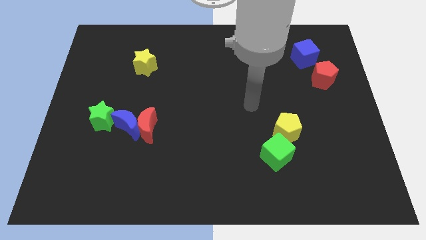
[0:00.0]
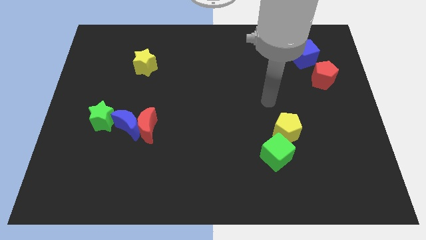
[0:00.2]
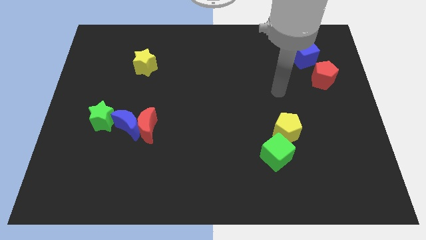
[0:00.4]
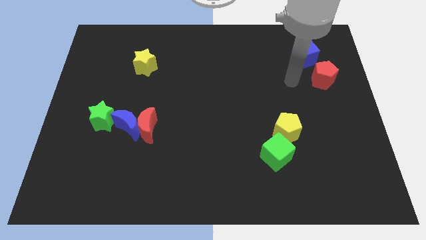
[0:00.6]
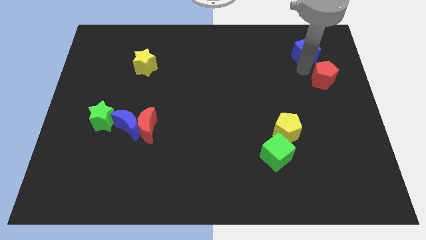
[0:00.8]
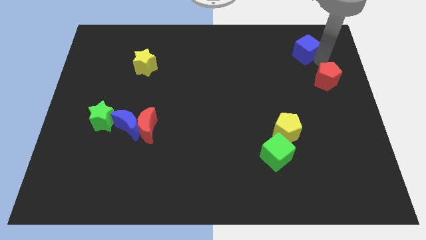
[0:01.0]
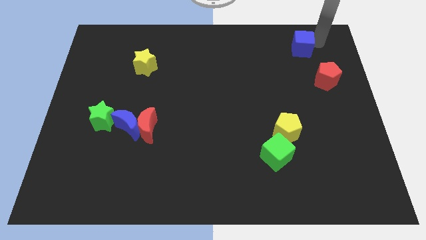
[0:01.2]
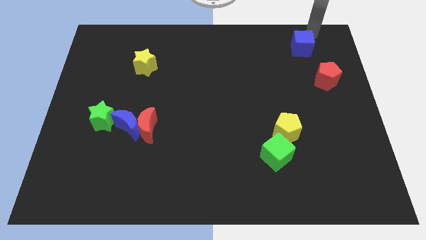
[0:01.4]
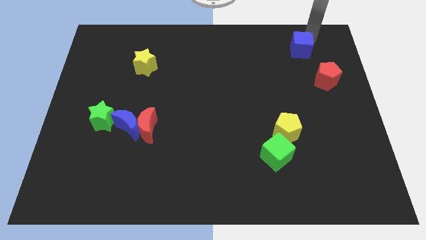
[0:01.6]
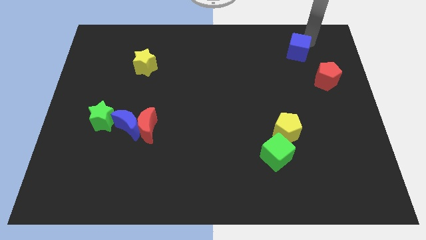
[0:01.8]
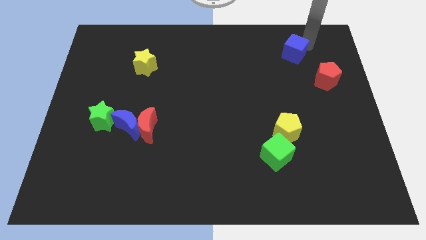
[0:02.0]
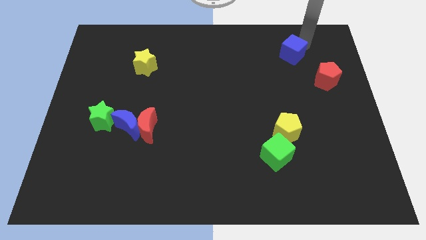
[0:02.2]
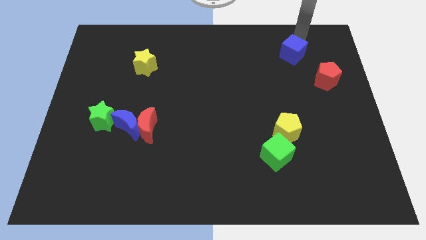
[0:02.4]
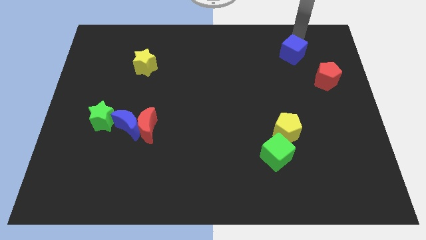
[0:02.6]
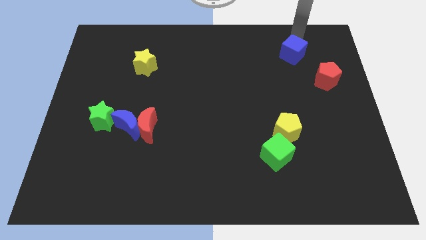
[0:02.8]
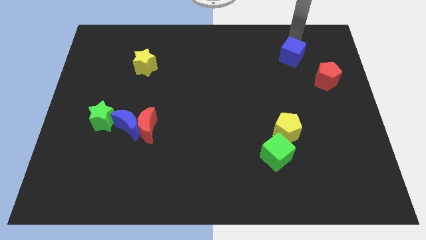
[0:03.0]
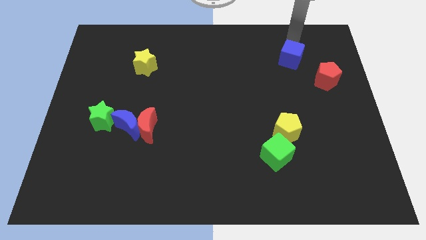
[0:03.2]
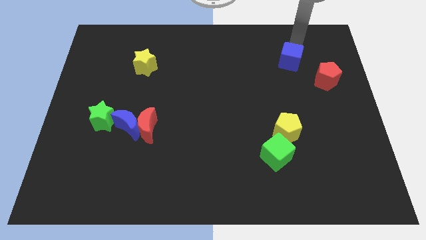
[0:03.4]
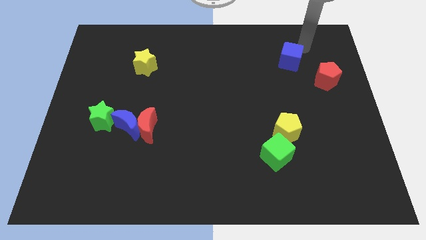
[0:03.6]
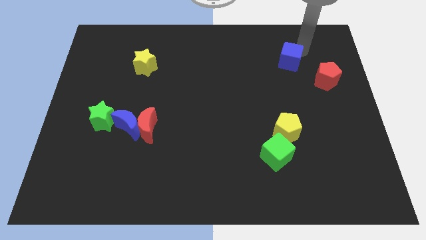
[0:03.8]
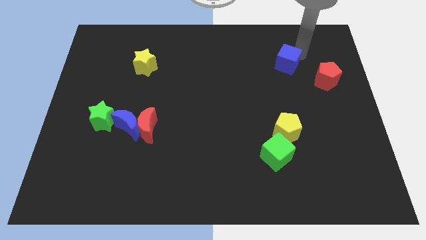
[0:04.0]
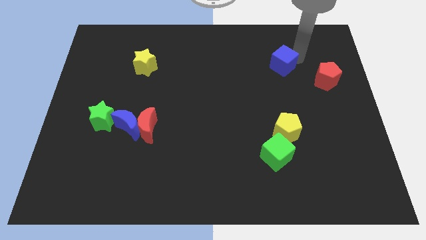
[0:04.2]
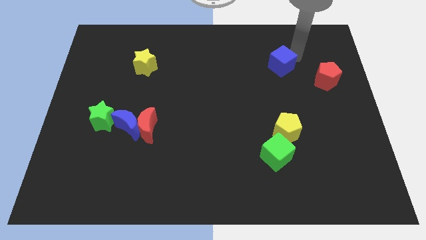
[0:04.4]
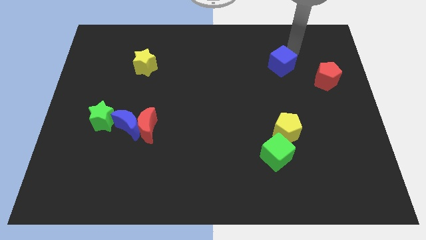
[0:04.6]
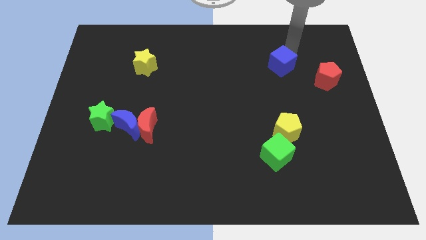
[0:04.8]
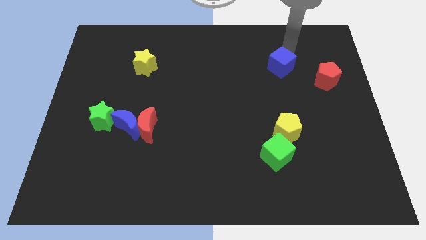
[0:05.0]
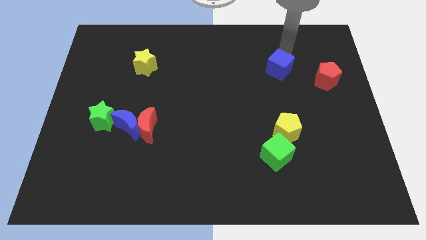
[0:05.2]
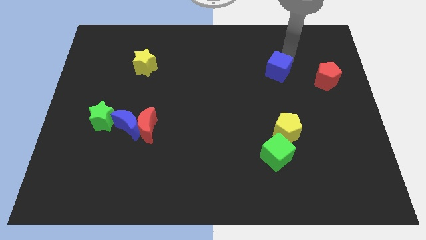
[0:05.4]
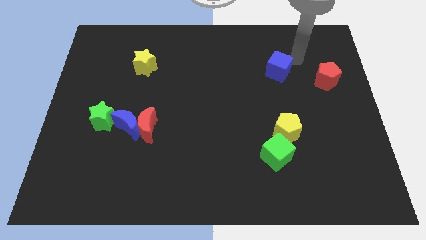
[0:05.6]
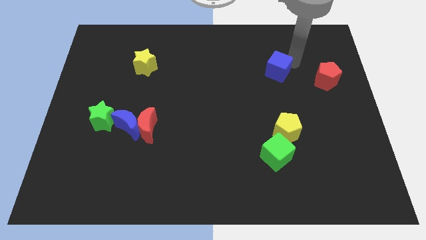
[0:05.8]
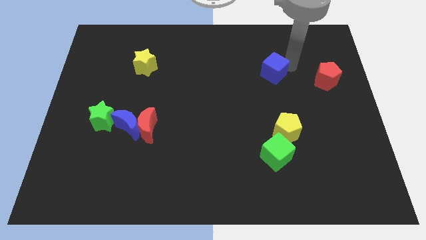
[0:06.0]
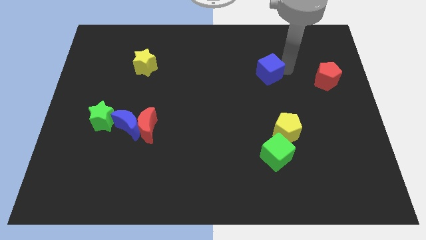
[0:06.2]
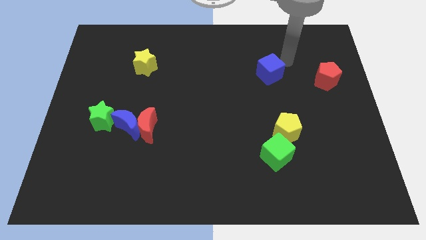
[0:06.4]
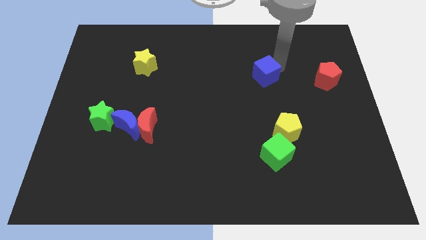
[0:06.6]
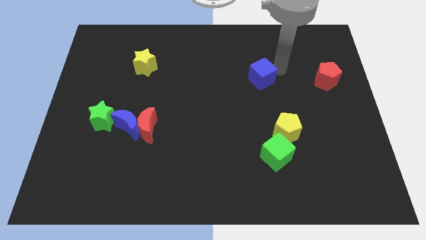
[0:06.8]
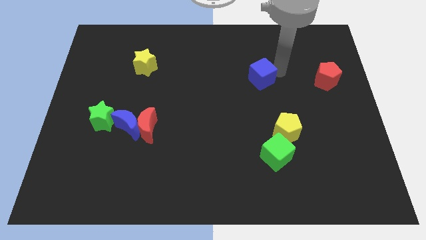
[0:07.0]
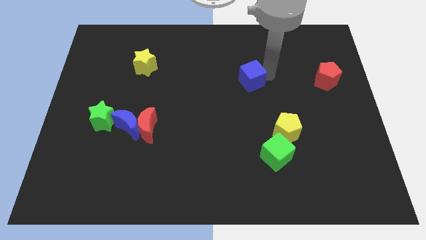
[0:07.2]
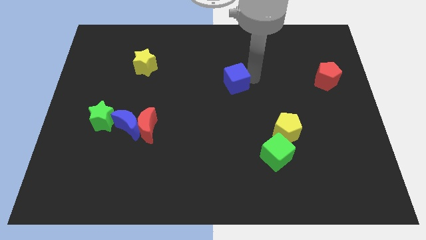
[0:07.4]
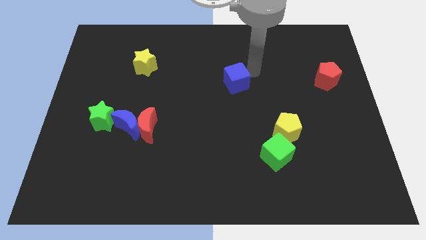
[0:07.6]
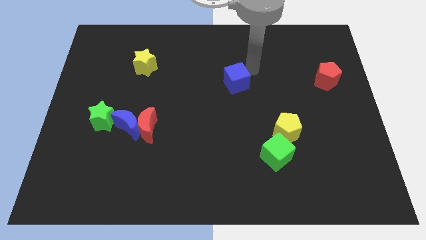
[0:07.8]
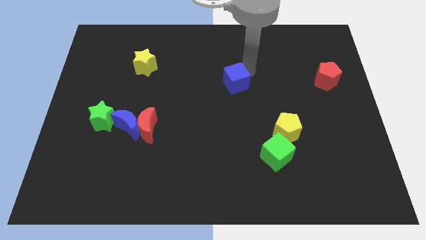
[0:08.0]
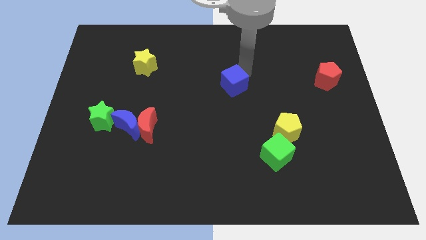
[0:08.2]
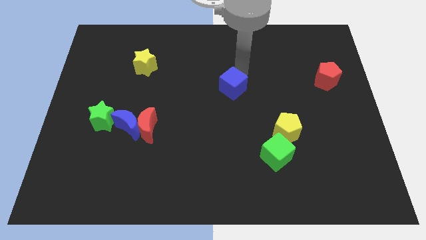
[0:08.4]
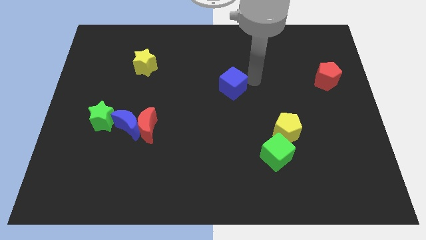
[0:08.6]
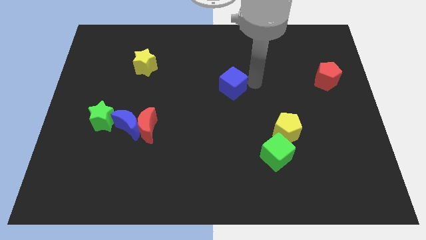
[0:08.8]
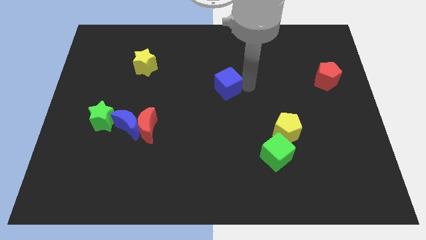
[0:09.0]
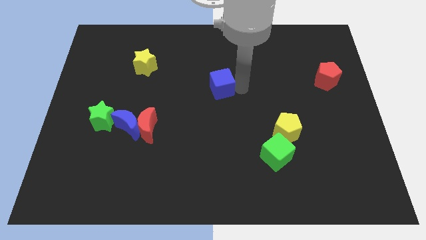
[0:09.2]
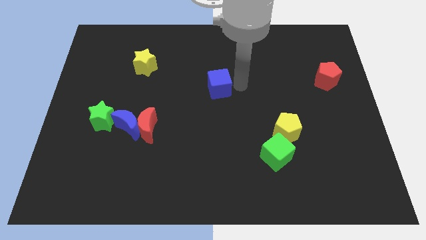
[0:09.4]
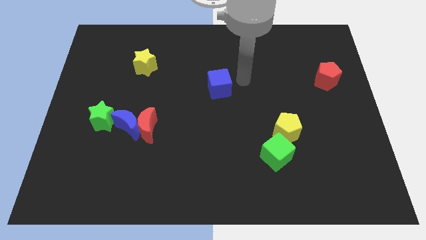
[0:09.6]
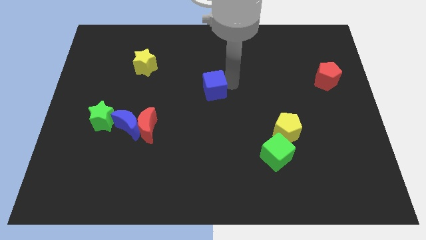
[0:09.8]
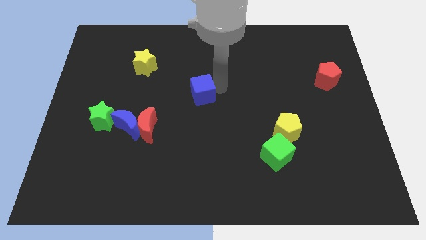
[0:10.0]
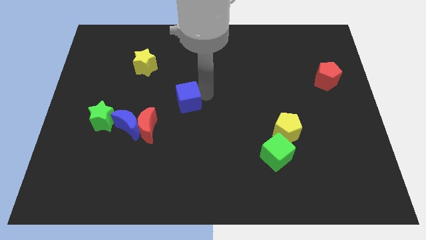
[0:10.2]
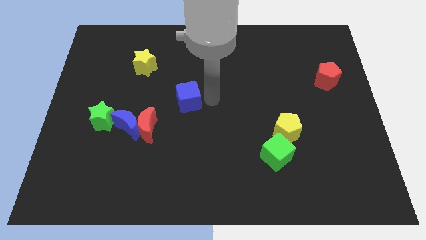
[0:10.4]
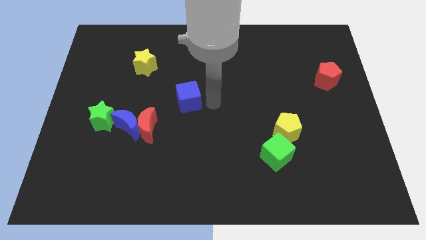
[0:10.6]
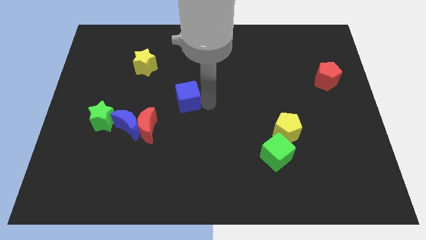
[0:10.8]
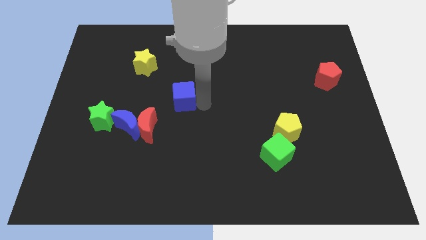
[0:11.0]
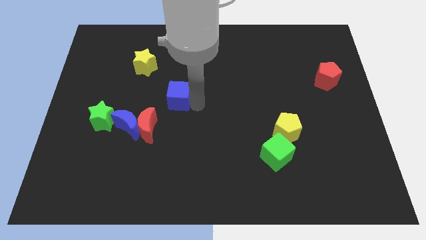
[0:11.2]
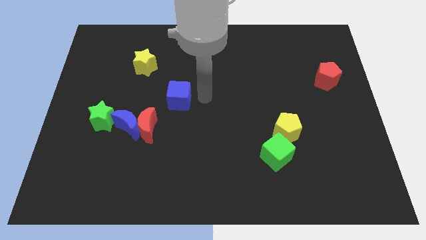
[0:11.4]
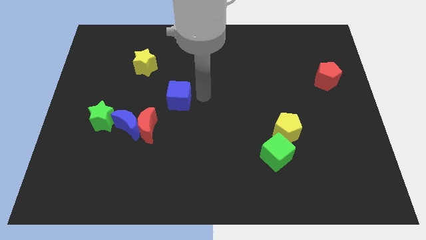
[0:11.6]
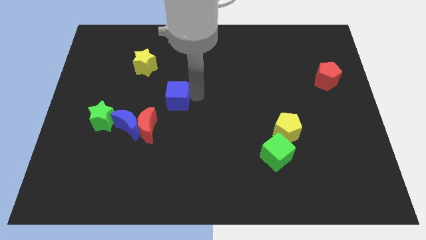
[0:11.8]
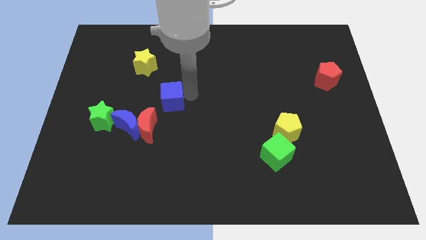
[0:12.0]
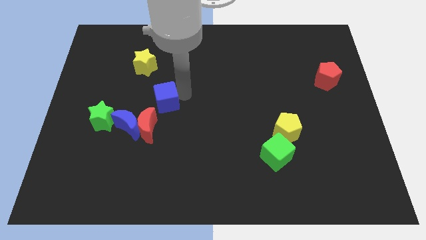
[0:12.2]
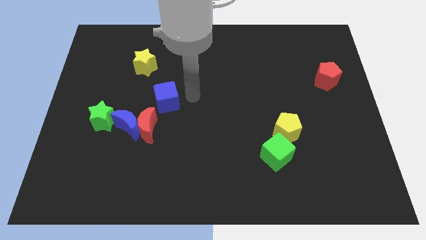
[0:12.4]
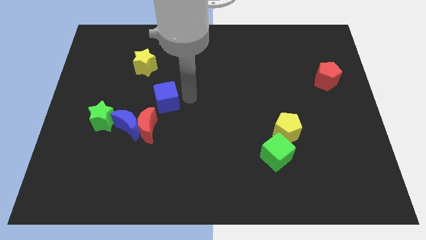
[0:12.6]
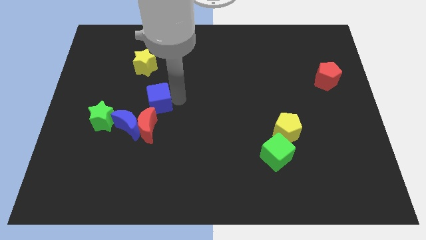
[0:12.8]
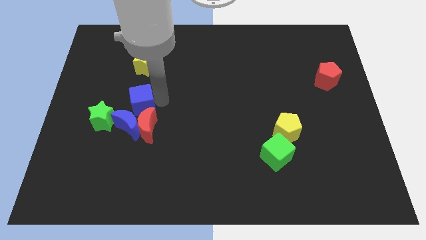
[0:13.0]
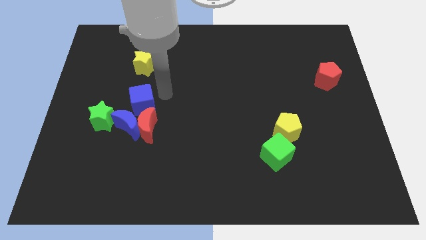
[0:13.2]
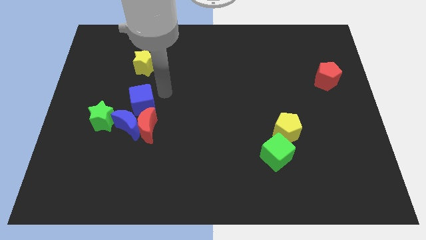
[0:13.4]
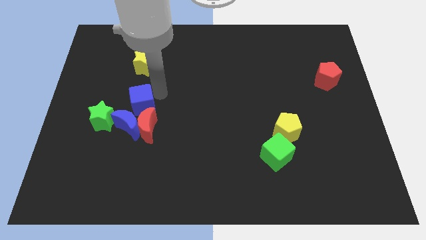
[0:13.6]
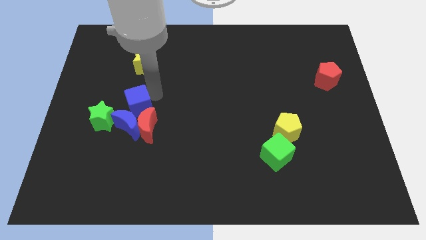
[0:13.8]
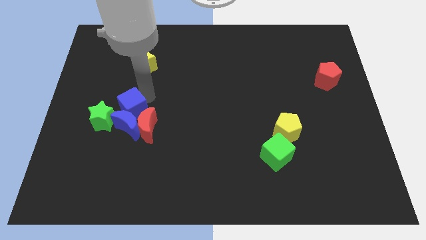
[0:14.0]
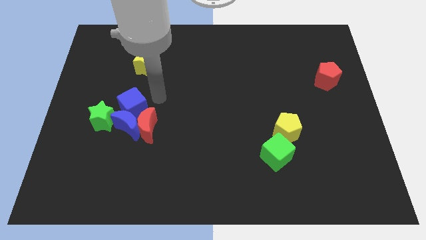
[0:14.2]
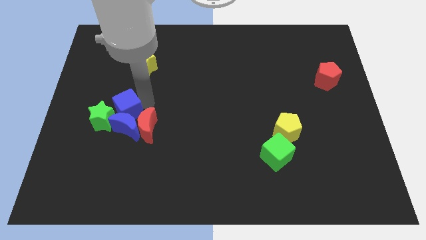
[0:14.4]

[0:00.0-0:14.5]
slide the blue cube close to the green star
